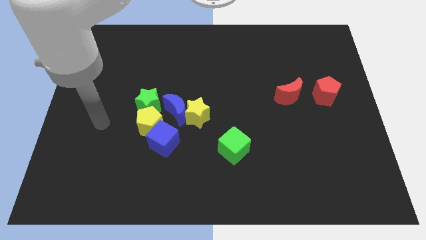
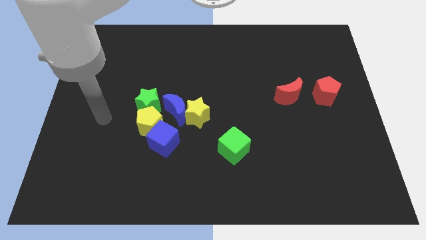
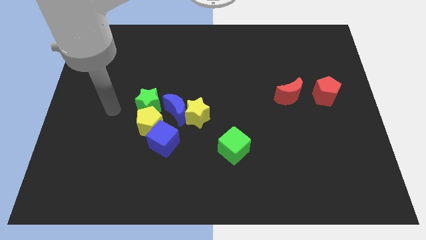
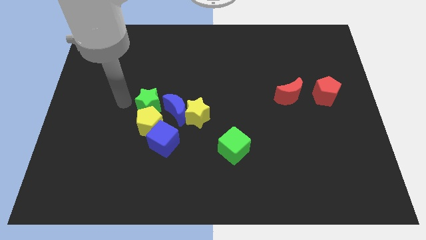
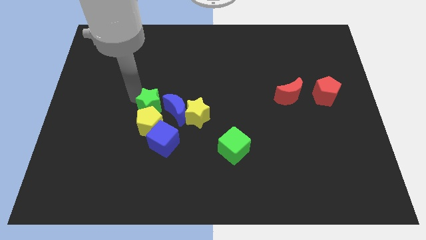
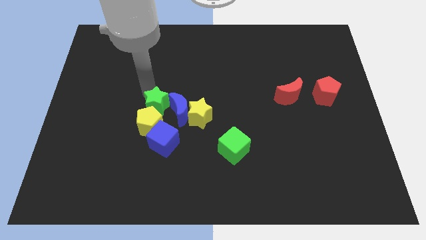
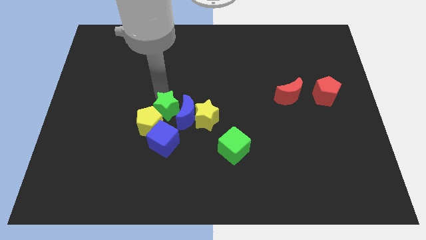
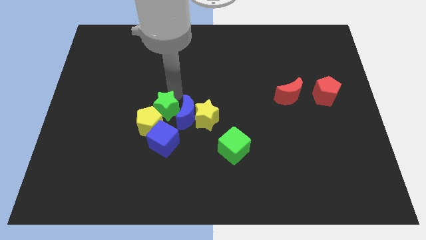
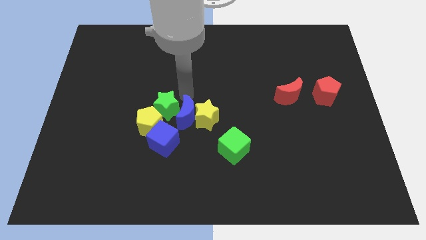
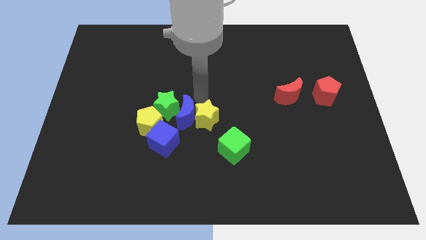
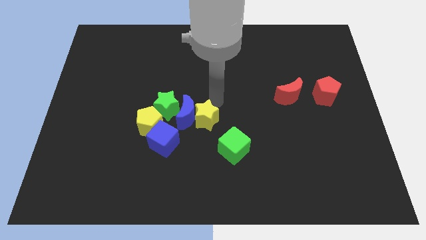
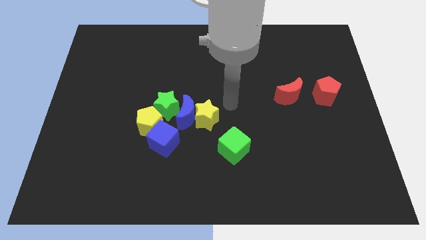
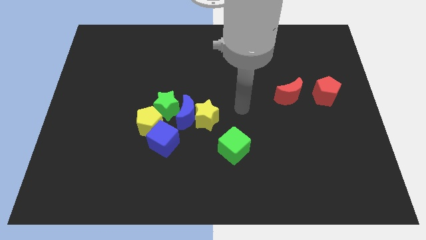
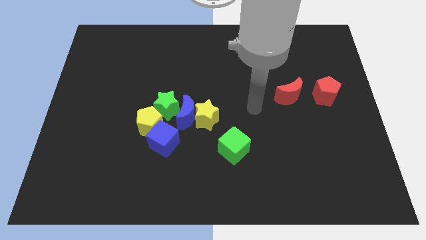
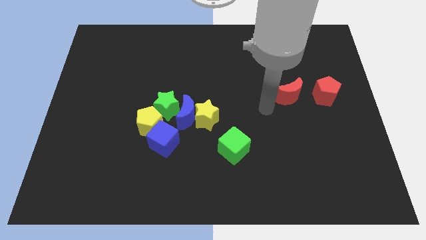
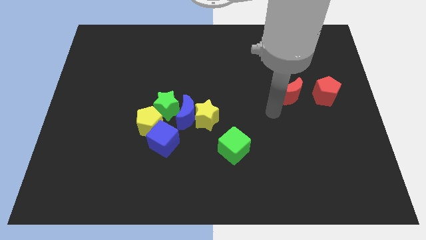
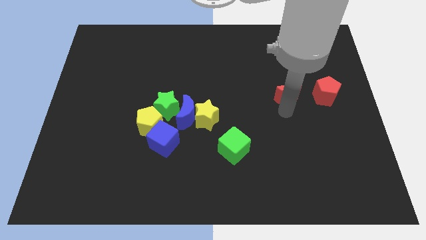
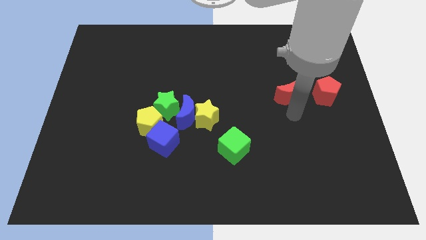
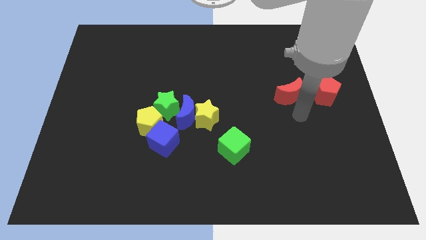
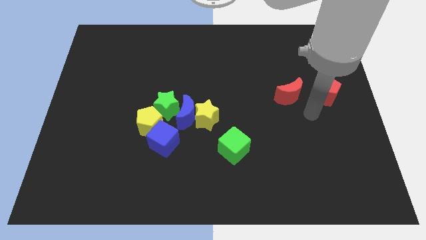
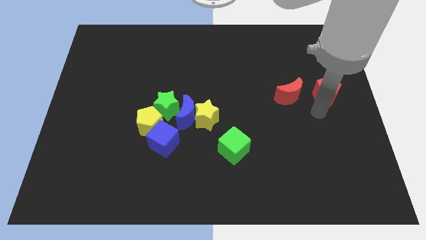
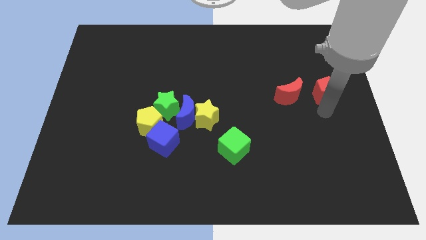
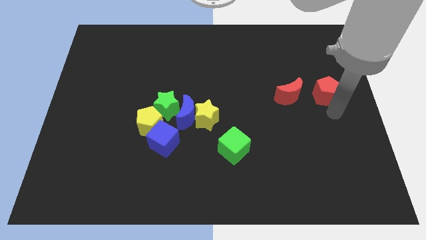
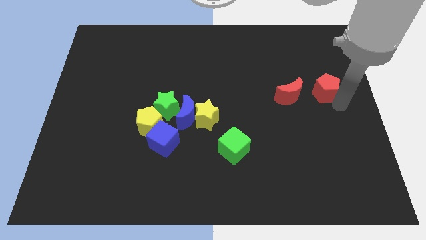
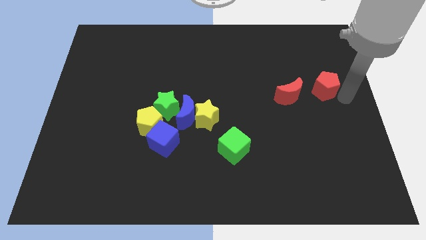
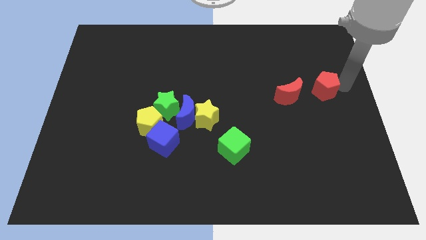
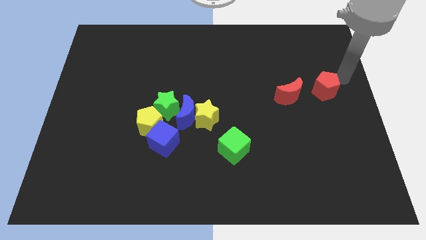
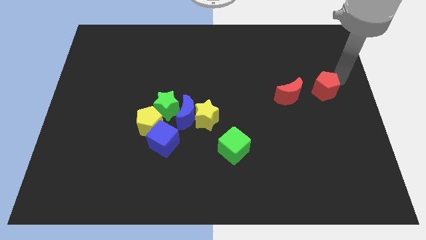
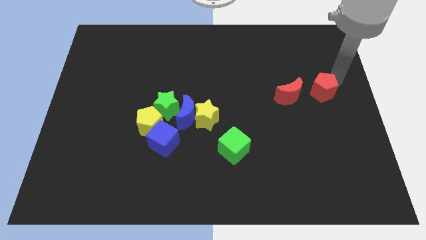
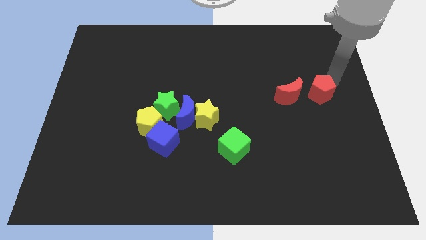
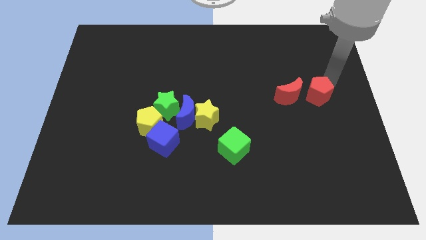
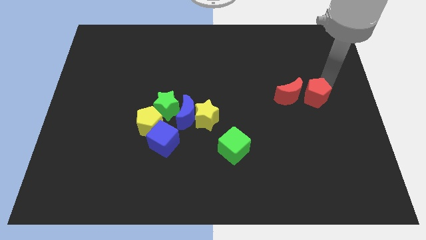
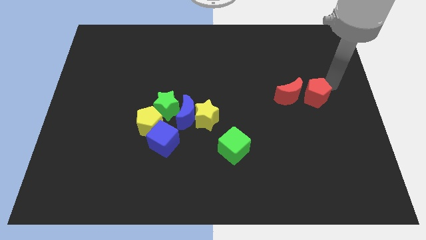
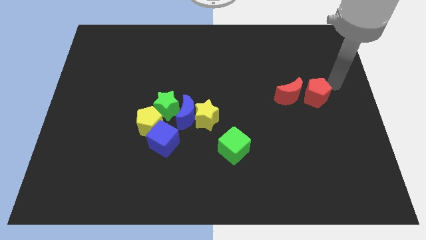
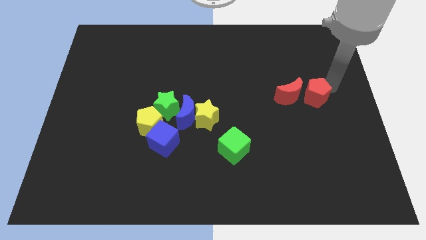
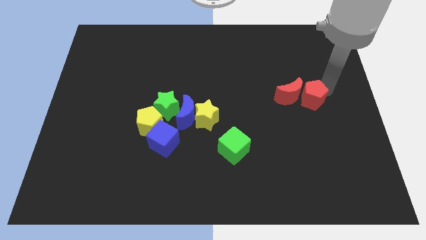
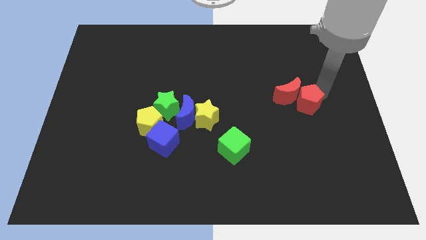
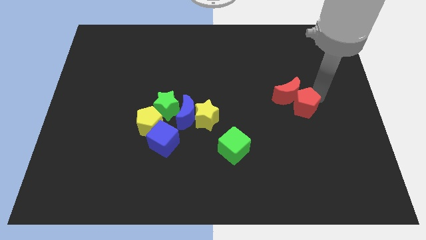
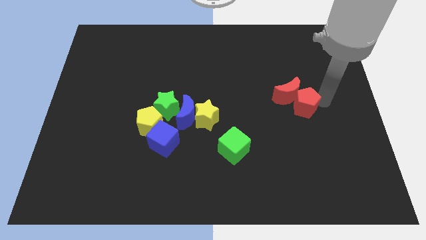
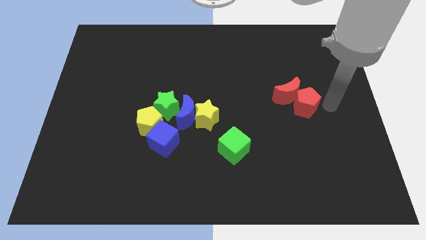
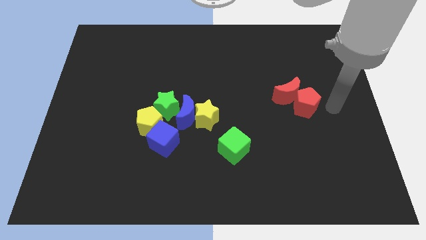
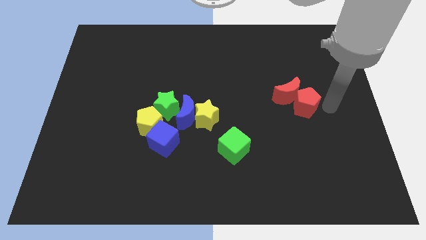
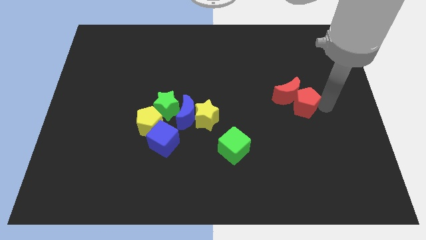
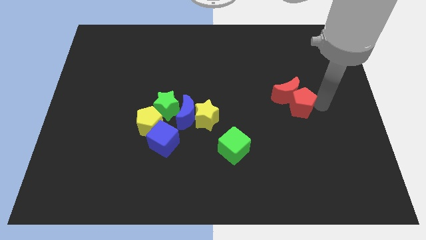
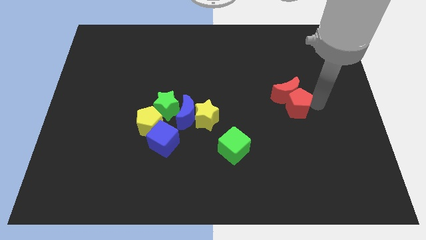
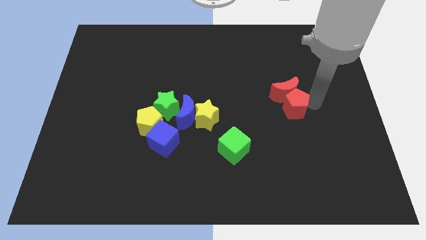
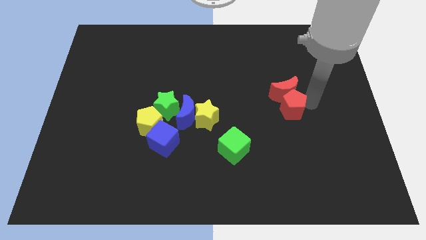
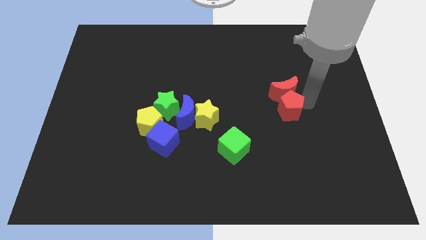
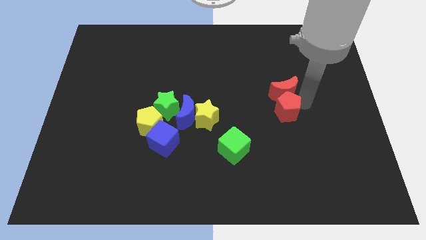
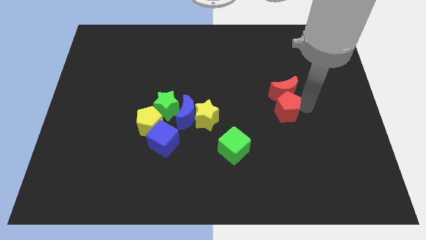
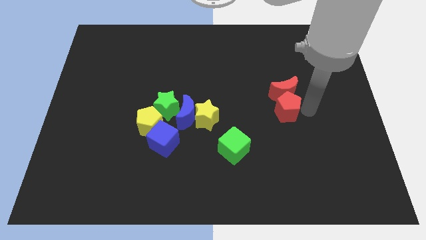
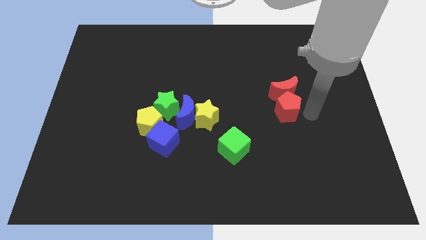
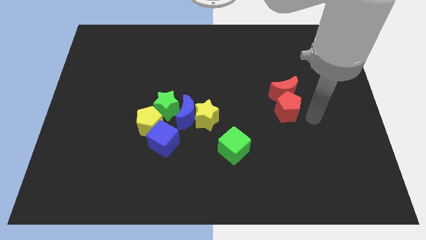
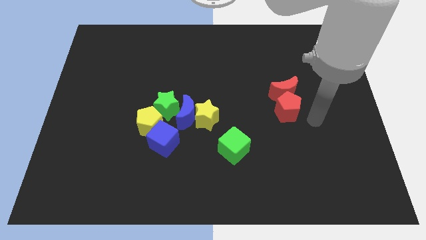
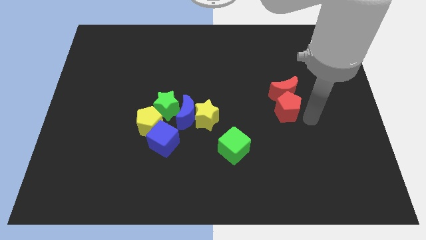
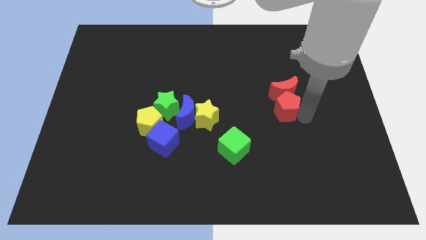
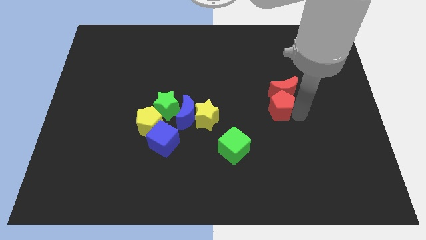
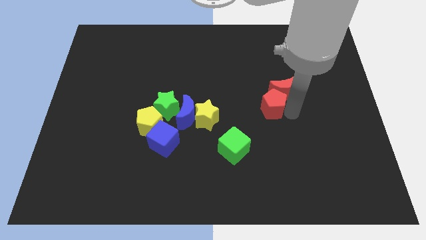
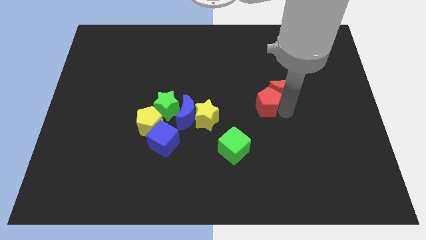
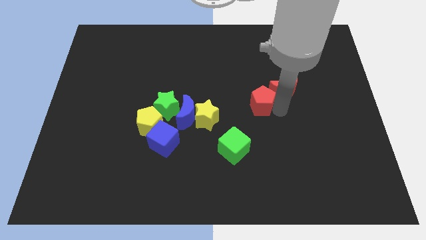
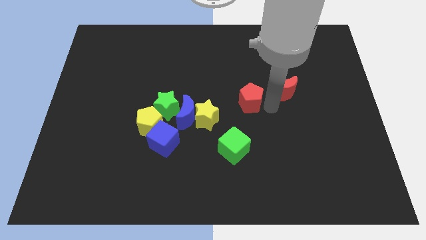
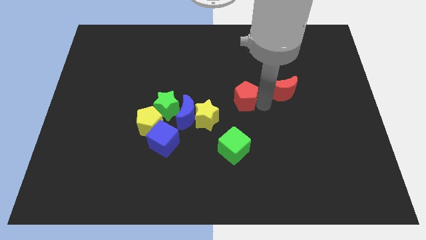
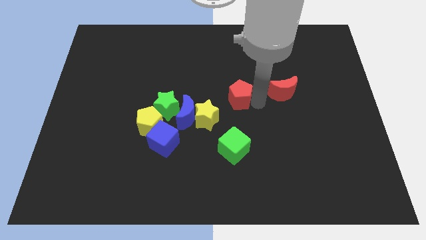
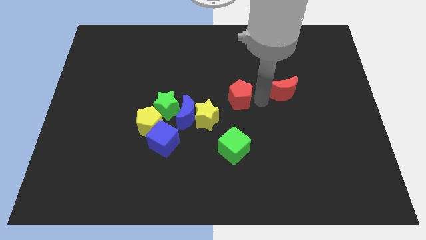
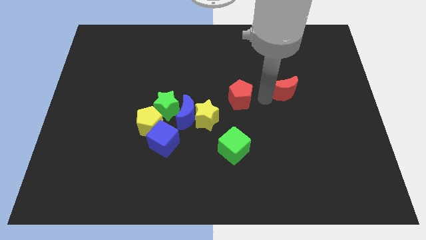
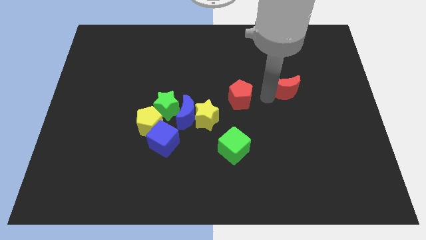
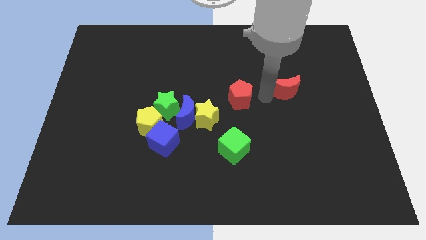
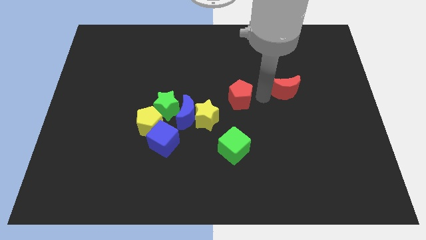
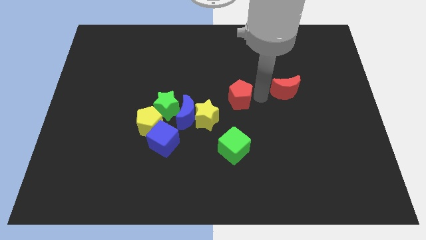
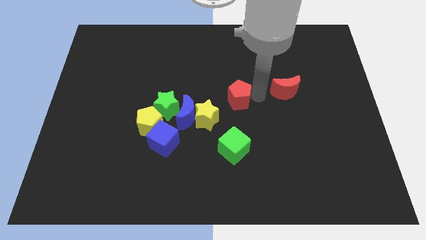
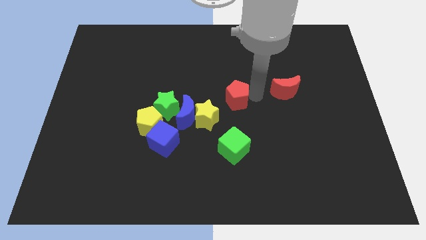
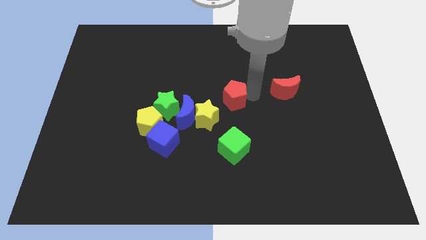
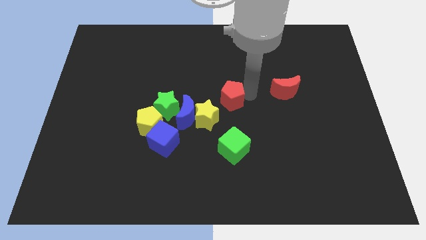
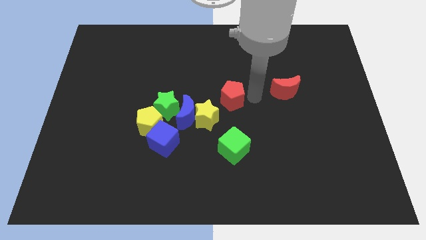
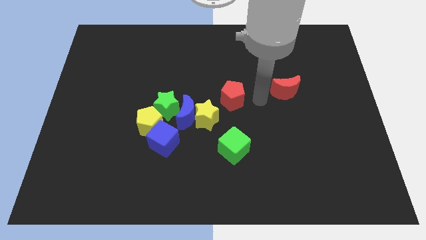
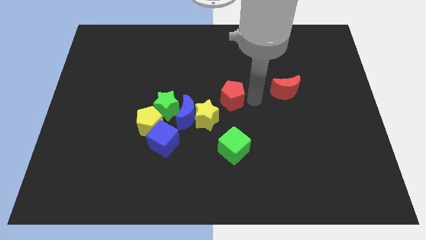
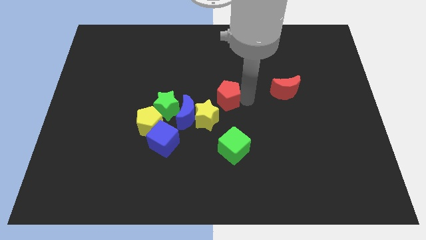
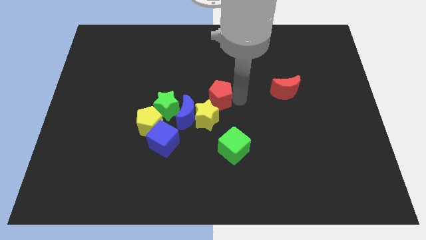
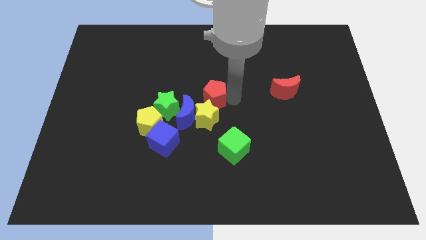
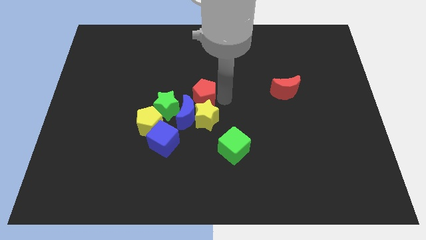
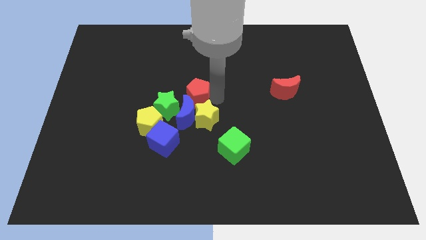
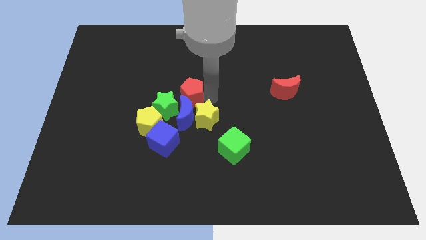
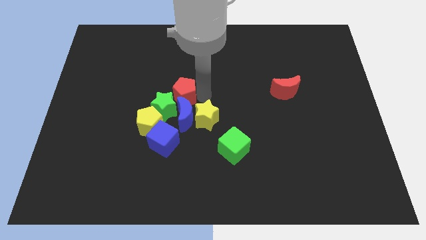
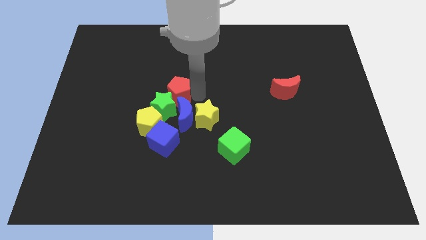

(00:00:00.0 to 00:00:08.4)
put the red pentagon next to the green star
